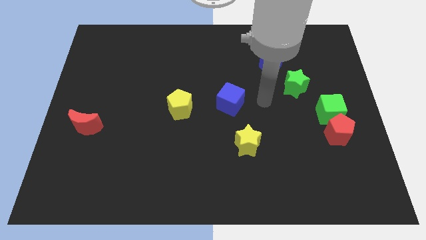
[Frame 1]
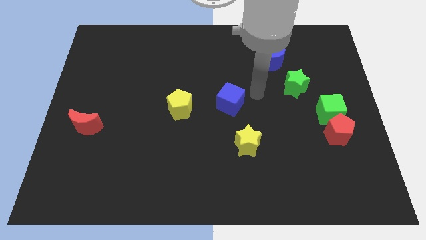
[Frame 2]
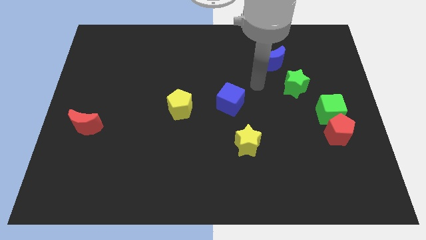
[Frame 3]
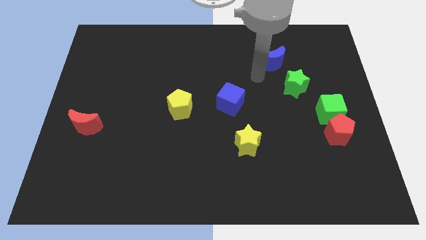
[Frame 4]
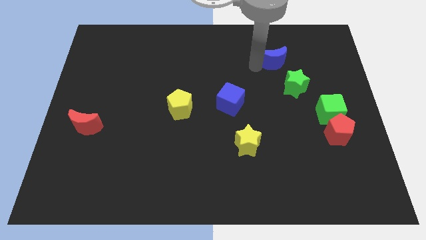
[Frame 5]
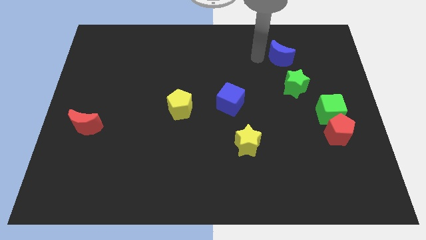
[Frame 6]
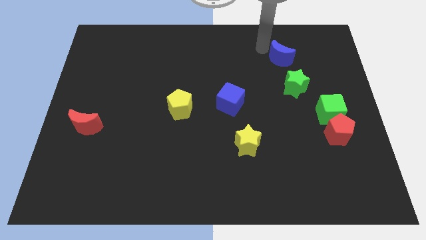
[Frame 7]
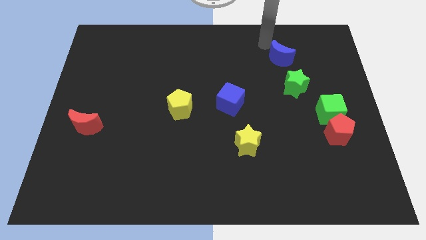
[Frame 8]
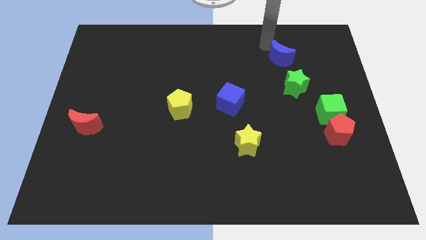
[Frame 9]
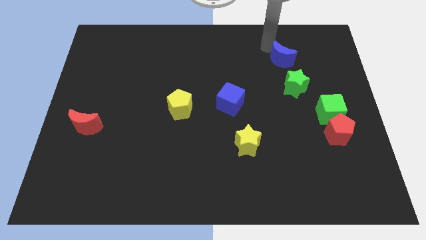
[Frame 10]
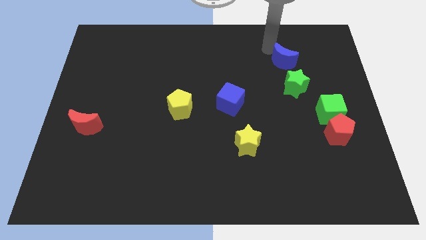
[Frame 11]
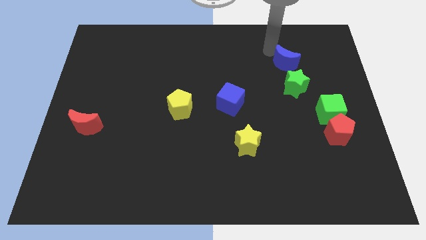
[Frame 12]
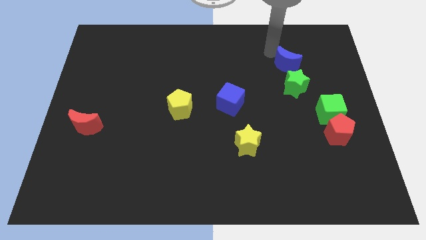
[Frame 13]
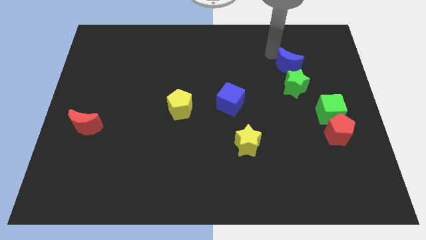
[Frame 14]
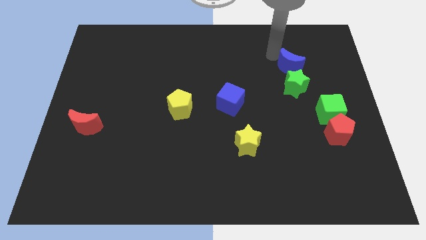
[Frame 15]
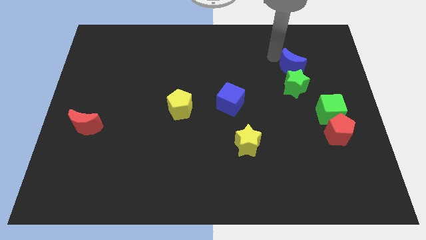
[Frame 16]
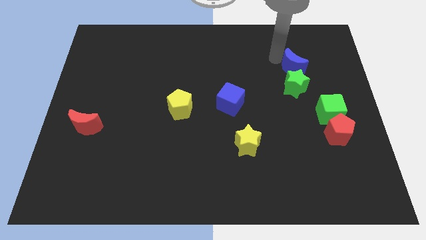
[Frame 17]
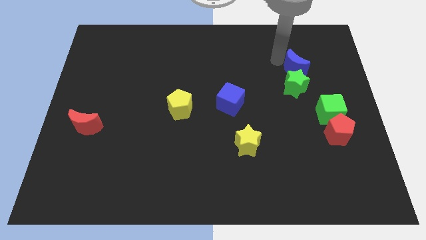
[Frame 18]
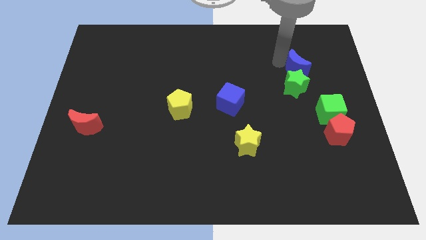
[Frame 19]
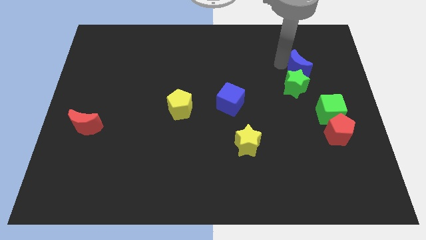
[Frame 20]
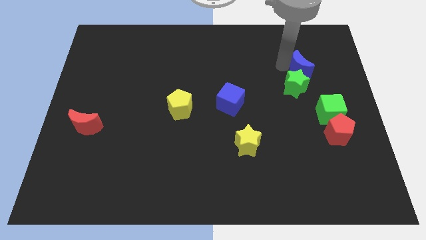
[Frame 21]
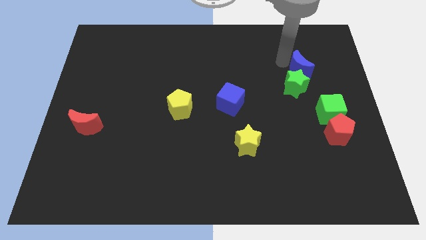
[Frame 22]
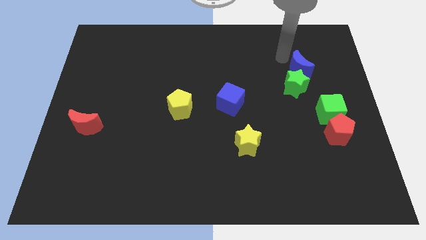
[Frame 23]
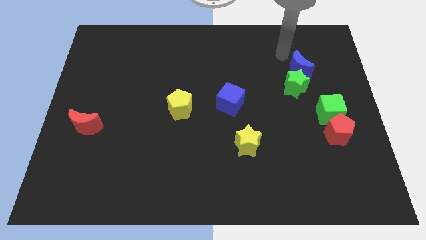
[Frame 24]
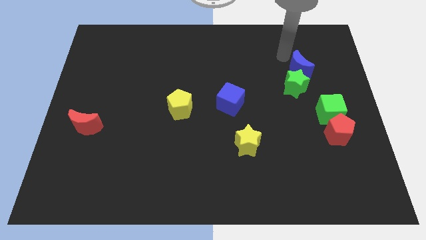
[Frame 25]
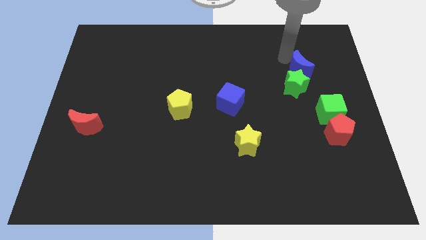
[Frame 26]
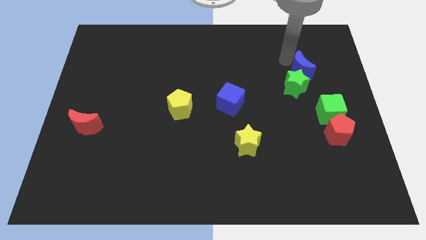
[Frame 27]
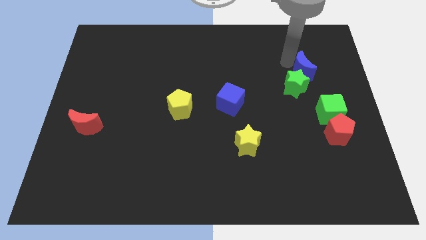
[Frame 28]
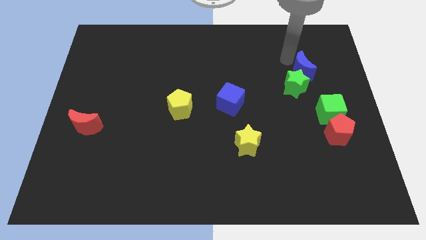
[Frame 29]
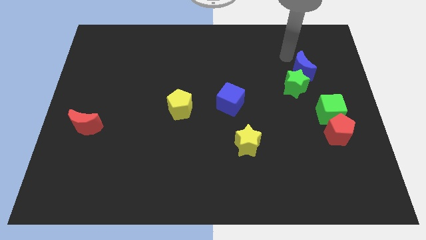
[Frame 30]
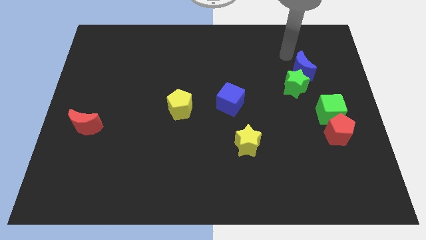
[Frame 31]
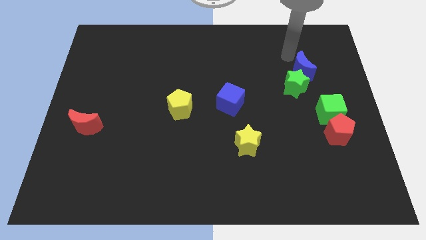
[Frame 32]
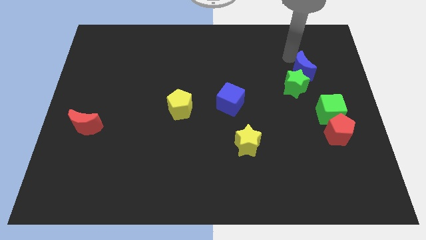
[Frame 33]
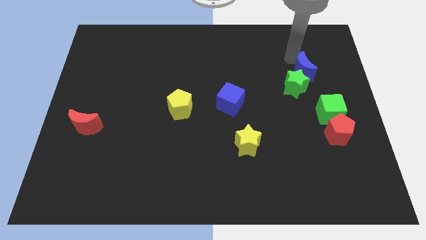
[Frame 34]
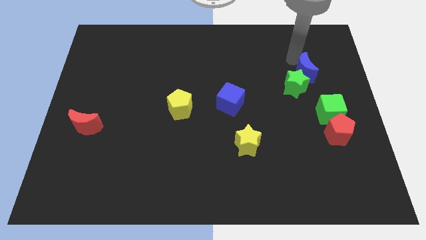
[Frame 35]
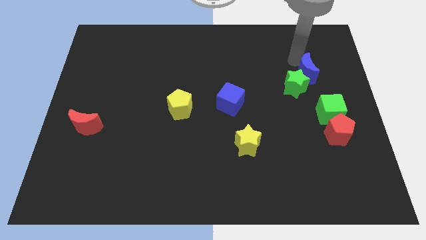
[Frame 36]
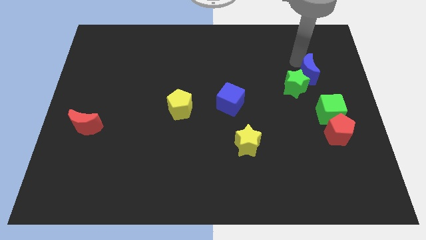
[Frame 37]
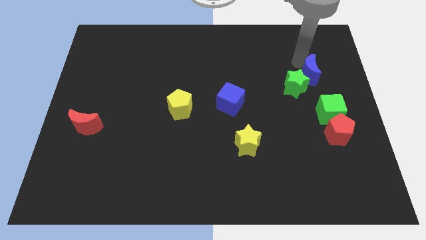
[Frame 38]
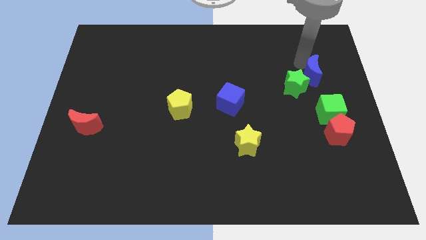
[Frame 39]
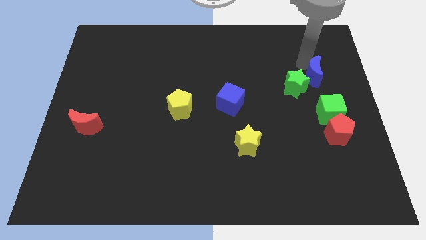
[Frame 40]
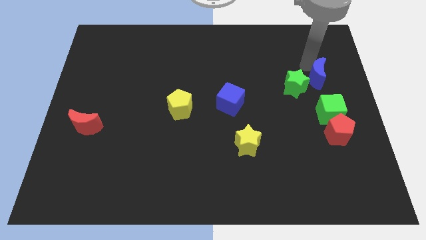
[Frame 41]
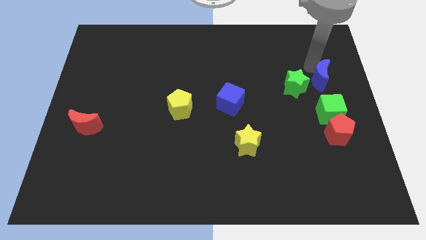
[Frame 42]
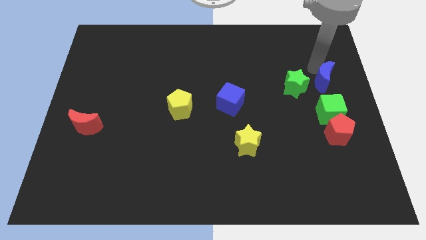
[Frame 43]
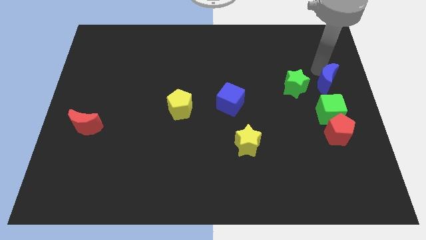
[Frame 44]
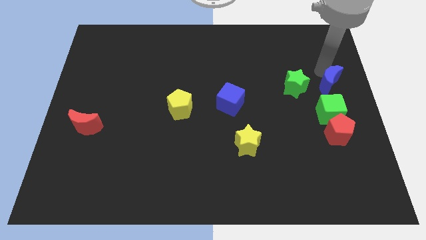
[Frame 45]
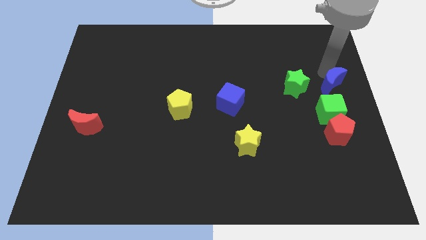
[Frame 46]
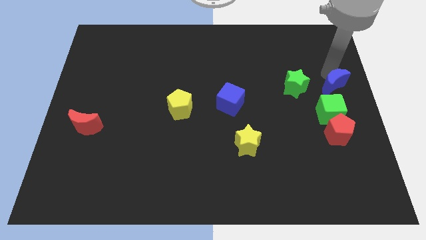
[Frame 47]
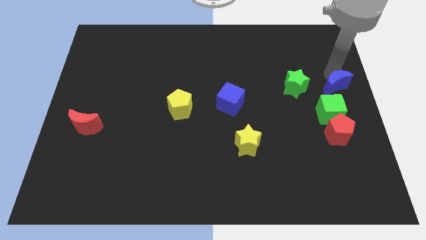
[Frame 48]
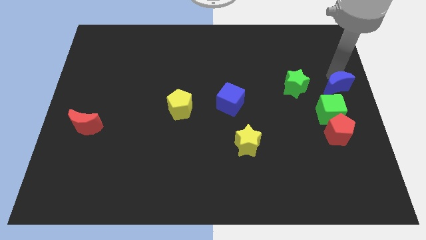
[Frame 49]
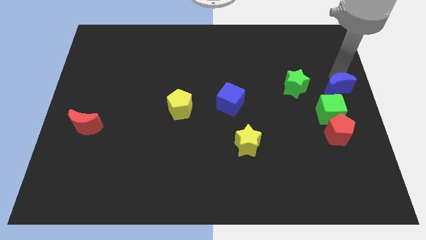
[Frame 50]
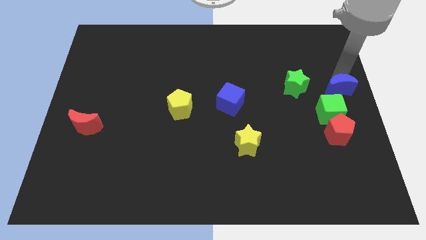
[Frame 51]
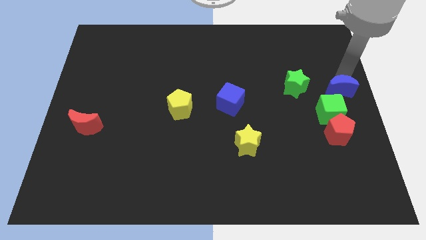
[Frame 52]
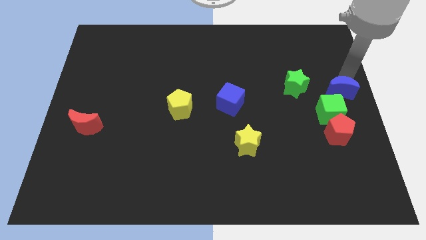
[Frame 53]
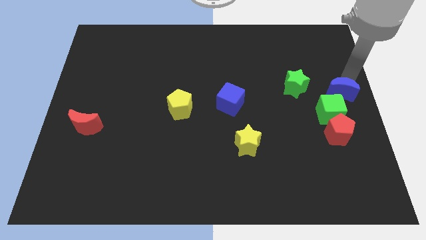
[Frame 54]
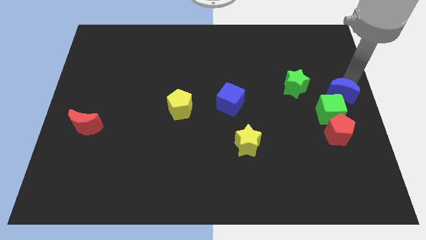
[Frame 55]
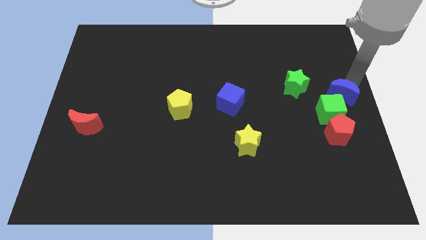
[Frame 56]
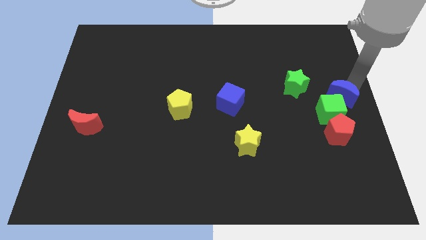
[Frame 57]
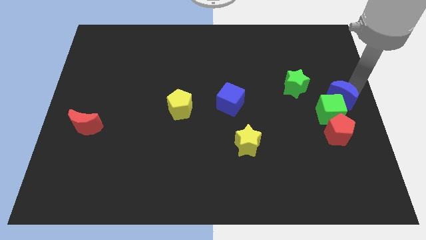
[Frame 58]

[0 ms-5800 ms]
slide the blue moon close to the green cube
